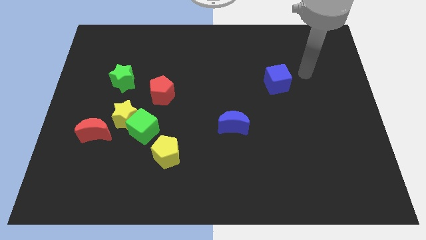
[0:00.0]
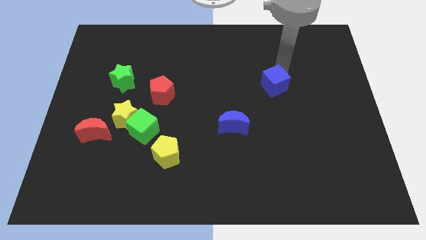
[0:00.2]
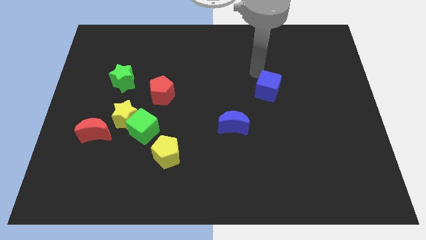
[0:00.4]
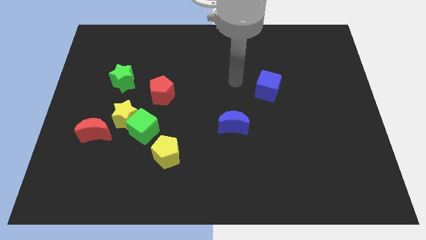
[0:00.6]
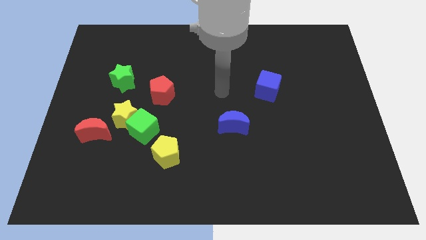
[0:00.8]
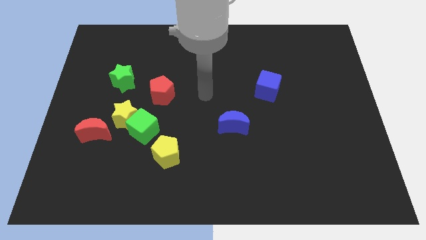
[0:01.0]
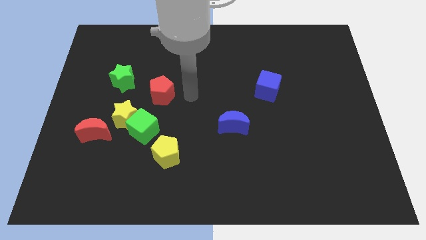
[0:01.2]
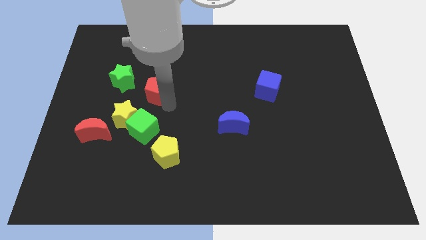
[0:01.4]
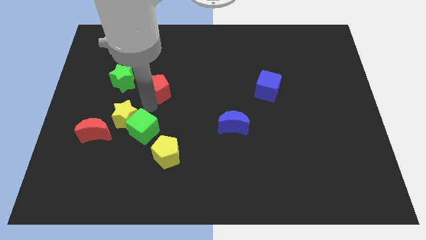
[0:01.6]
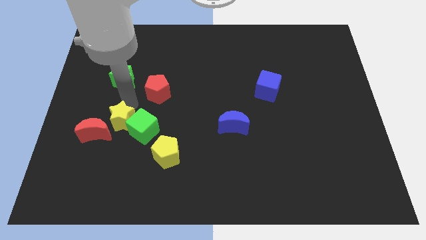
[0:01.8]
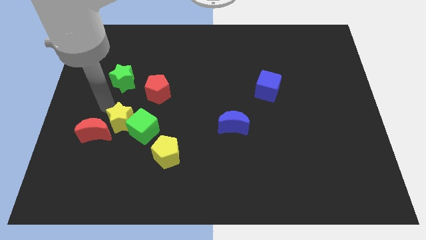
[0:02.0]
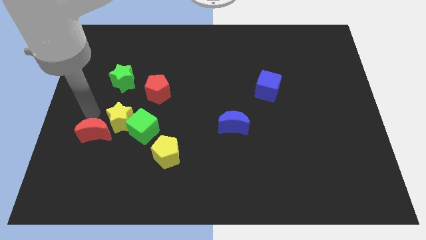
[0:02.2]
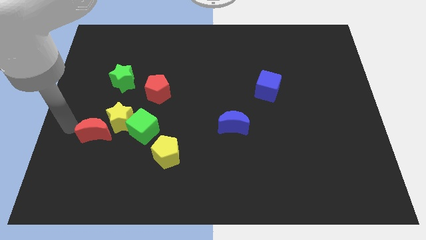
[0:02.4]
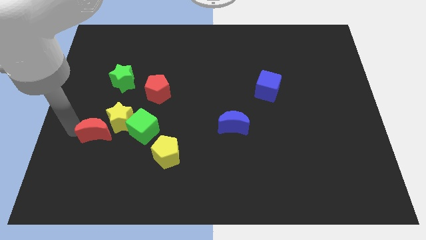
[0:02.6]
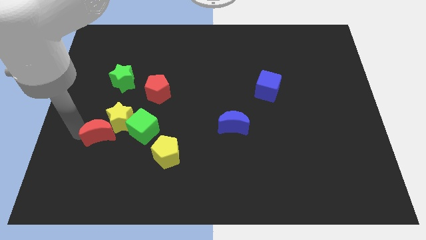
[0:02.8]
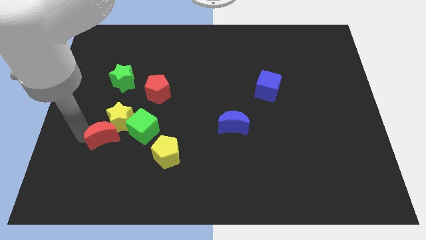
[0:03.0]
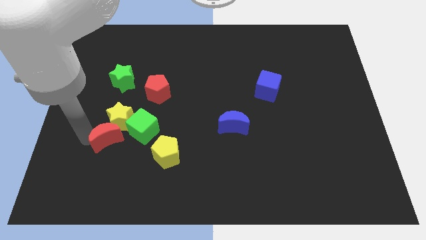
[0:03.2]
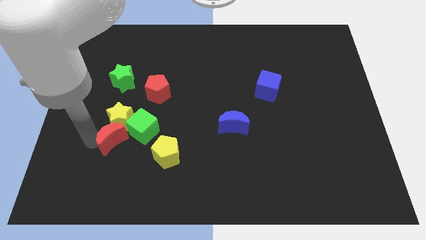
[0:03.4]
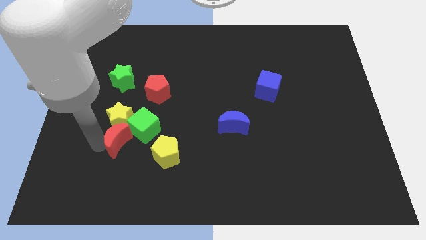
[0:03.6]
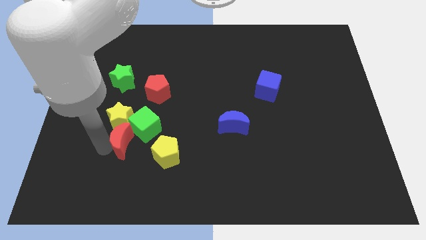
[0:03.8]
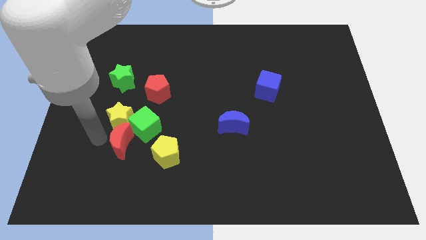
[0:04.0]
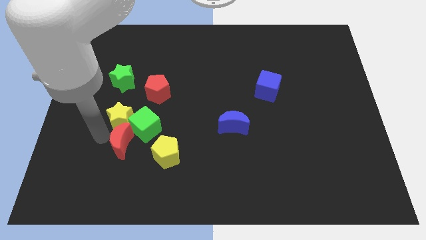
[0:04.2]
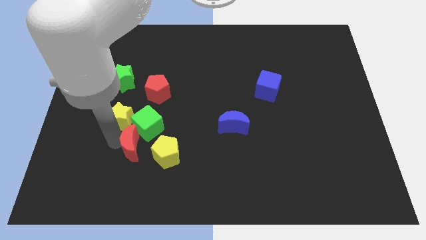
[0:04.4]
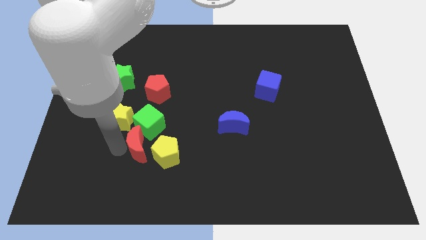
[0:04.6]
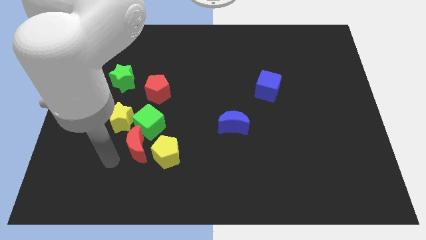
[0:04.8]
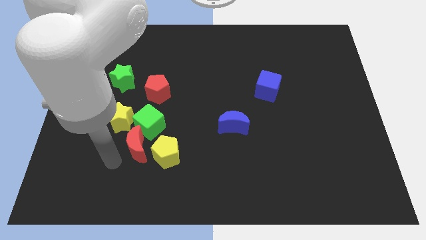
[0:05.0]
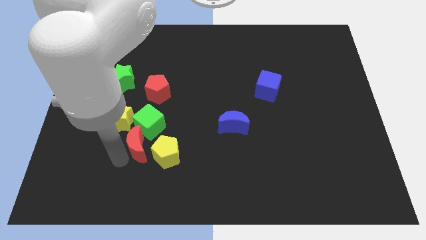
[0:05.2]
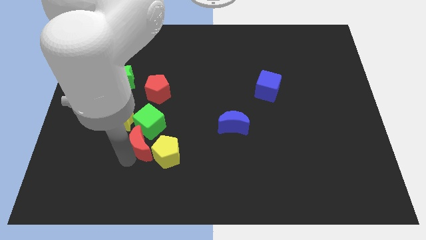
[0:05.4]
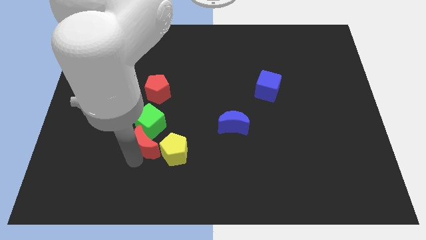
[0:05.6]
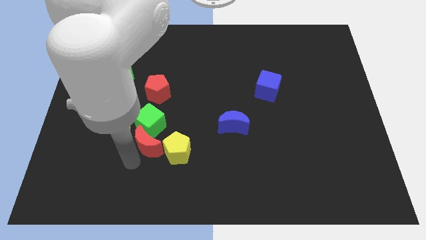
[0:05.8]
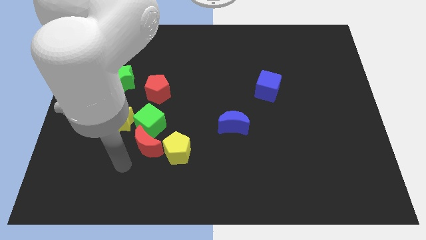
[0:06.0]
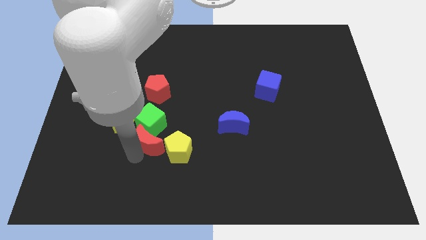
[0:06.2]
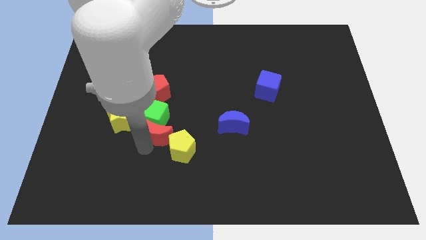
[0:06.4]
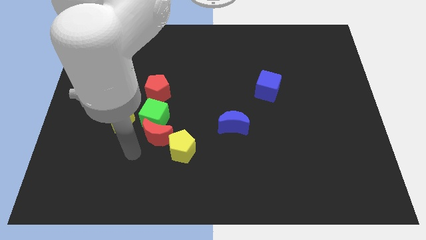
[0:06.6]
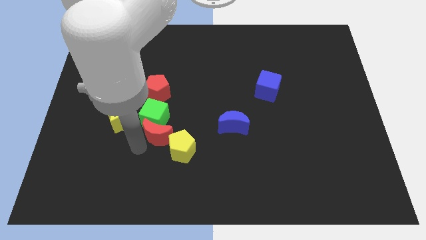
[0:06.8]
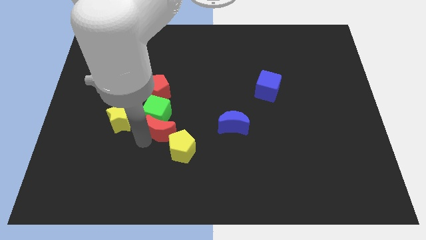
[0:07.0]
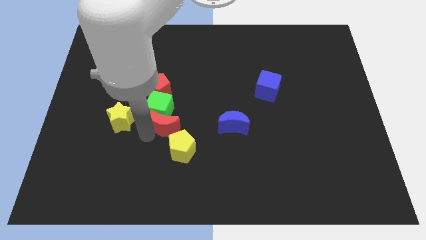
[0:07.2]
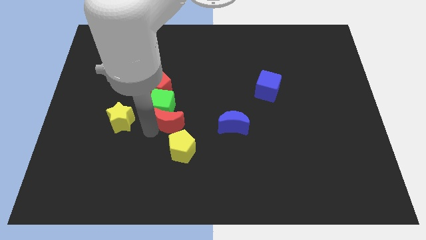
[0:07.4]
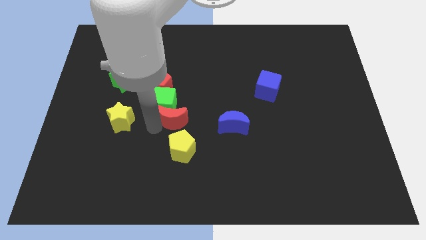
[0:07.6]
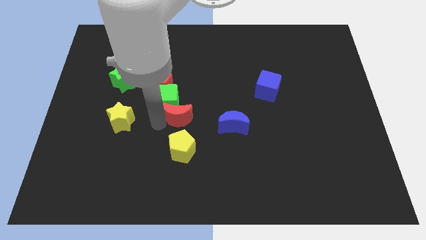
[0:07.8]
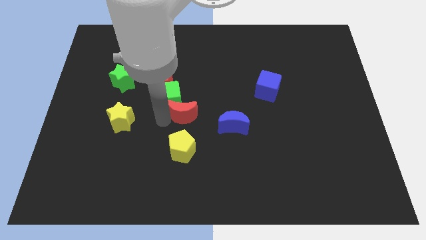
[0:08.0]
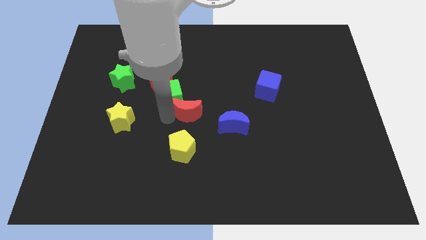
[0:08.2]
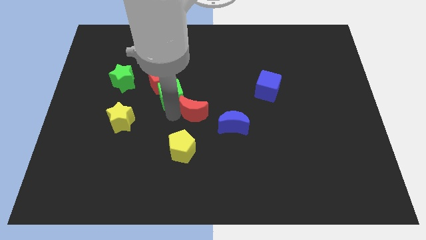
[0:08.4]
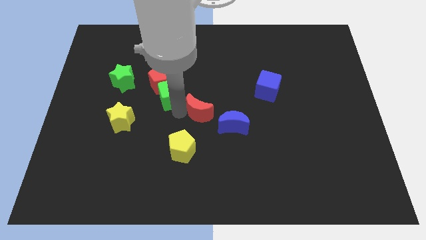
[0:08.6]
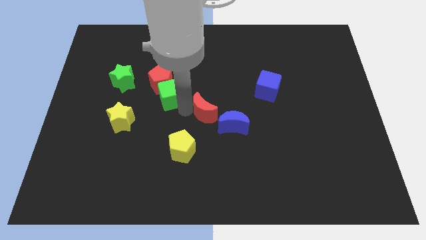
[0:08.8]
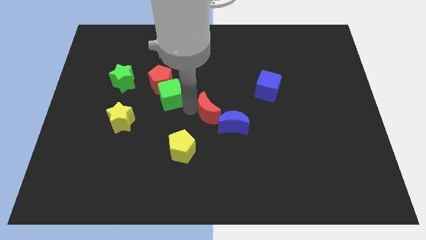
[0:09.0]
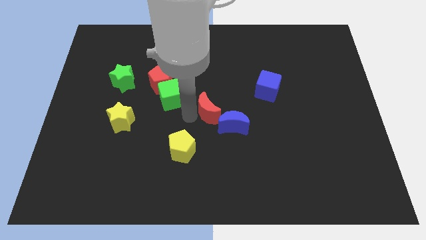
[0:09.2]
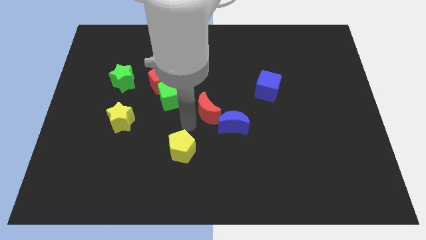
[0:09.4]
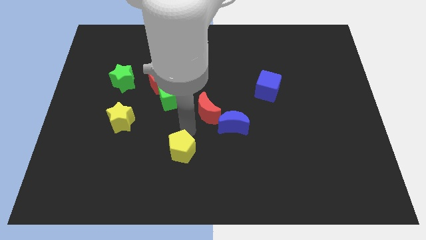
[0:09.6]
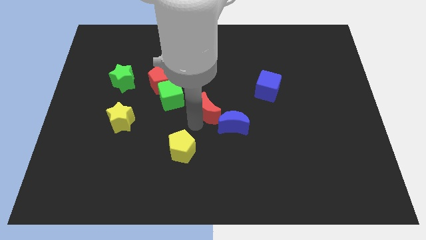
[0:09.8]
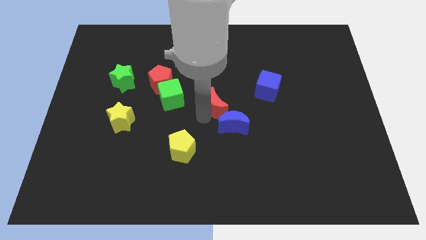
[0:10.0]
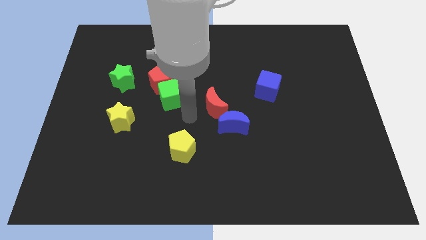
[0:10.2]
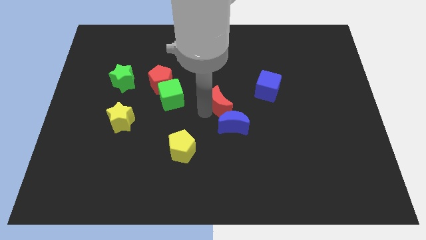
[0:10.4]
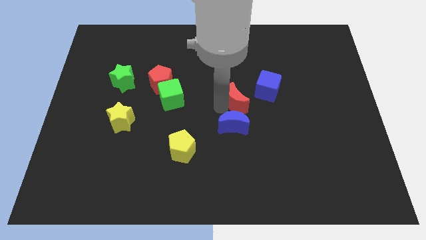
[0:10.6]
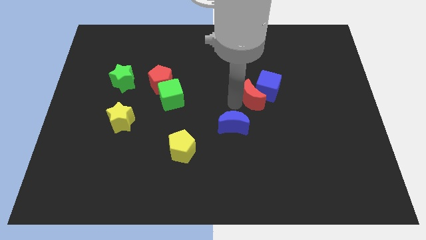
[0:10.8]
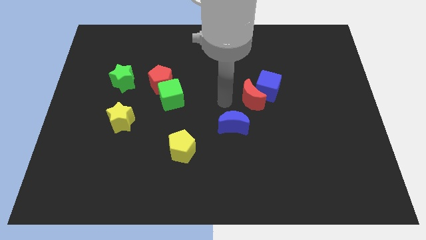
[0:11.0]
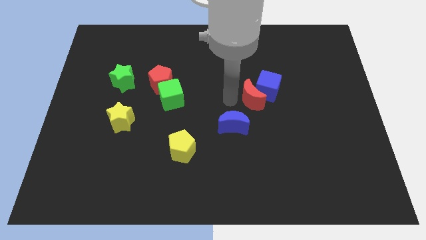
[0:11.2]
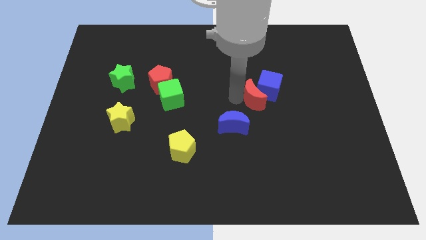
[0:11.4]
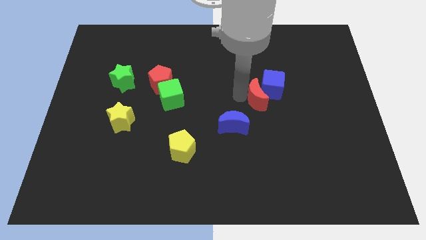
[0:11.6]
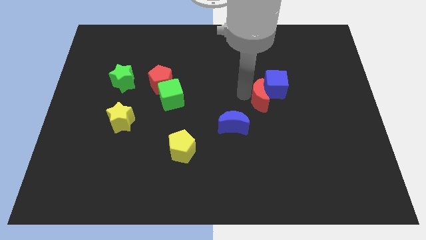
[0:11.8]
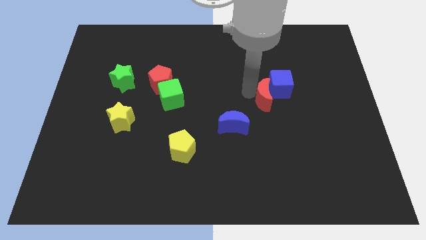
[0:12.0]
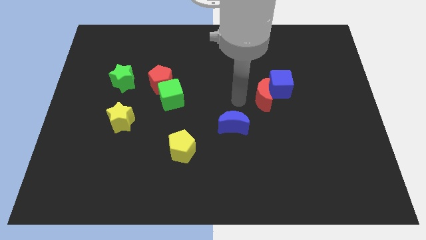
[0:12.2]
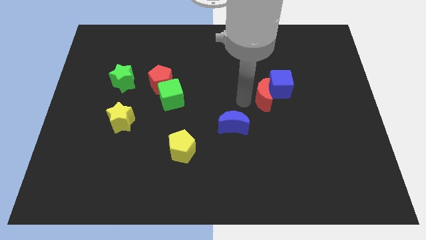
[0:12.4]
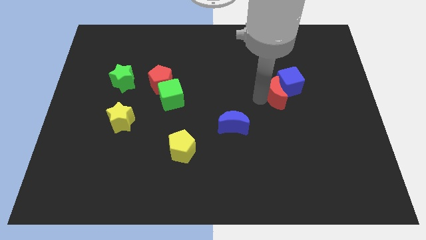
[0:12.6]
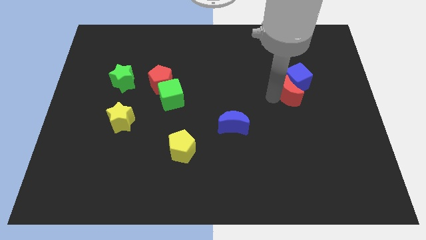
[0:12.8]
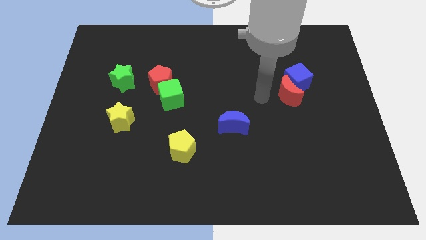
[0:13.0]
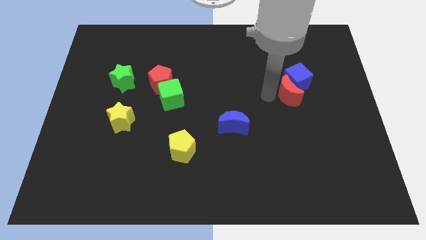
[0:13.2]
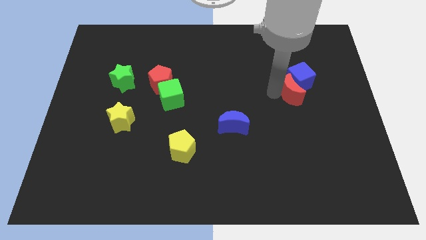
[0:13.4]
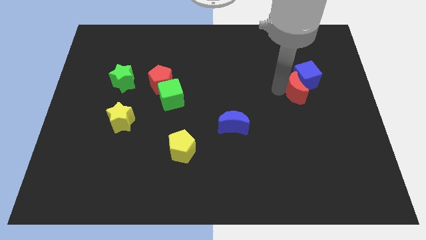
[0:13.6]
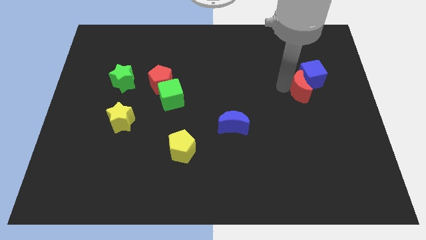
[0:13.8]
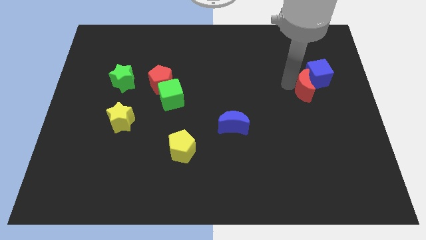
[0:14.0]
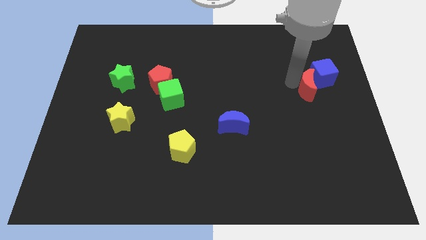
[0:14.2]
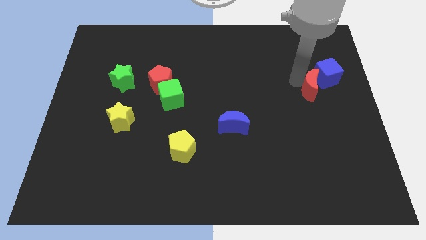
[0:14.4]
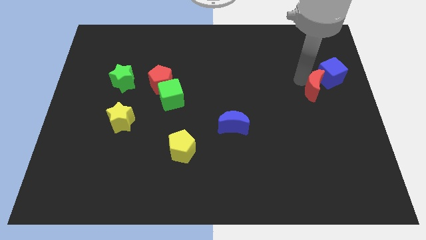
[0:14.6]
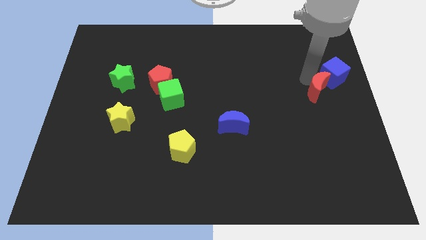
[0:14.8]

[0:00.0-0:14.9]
put the red moon to the right side of the board
